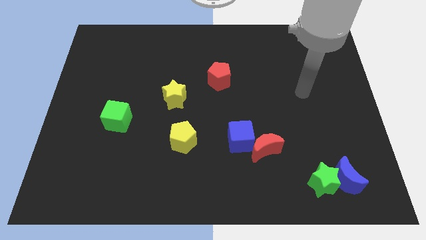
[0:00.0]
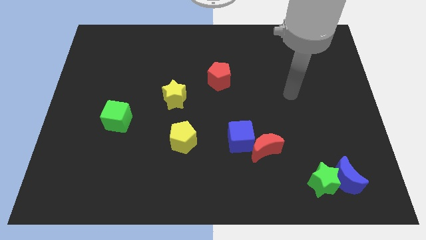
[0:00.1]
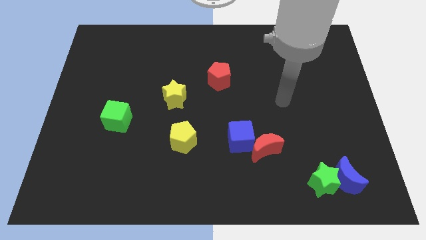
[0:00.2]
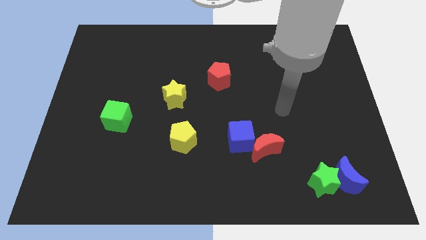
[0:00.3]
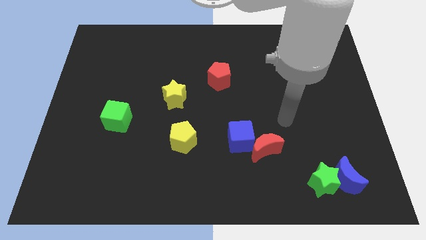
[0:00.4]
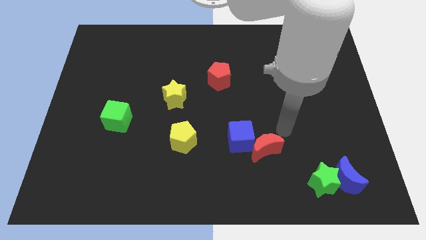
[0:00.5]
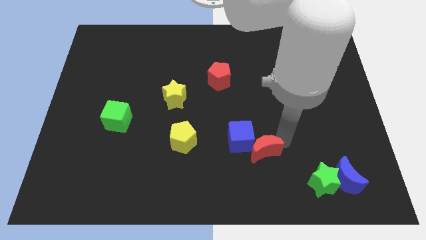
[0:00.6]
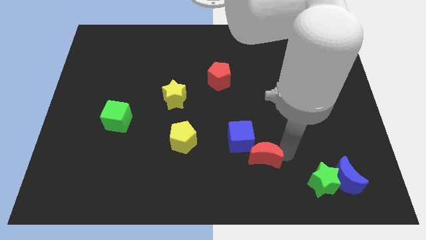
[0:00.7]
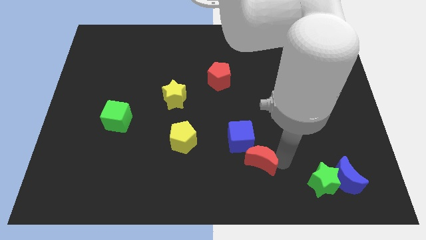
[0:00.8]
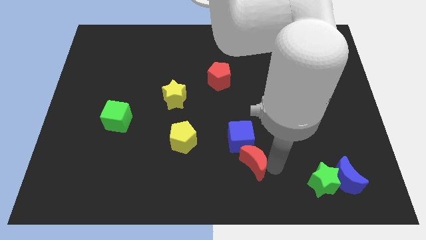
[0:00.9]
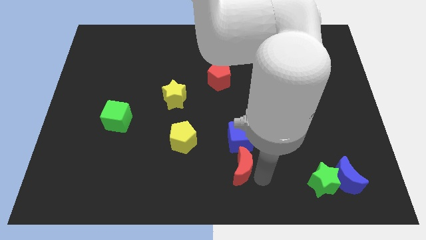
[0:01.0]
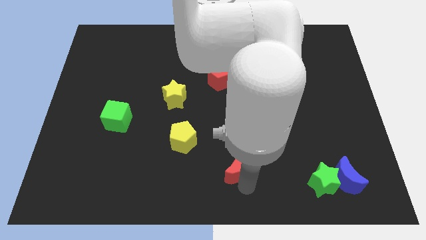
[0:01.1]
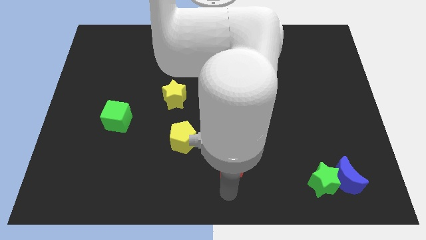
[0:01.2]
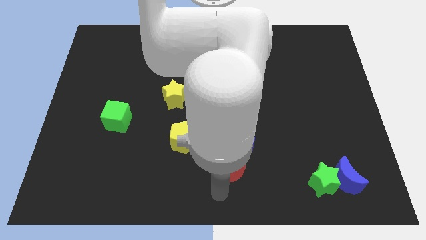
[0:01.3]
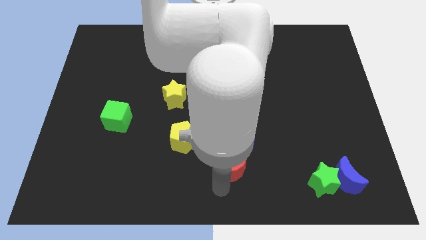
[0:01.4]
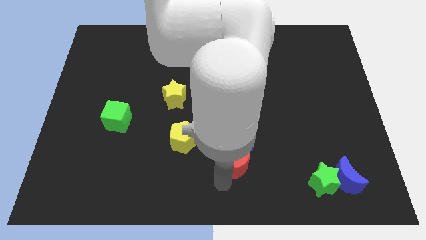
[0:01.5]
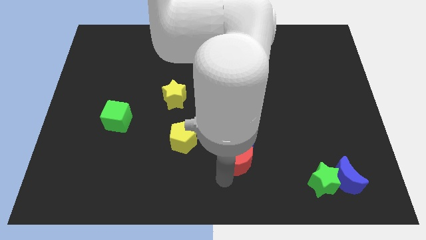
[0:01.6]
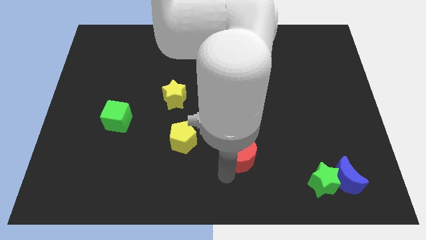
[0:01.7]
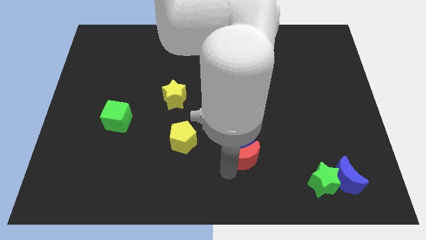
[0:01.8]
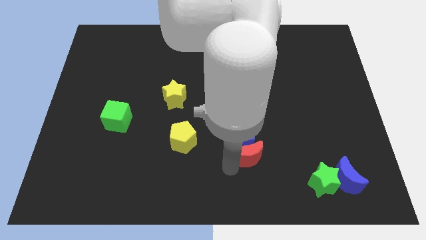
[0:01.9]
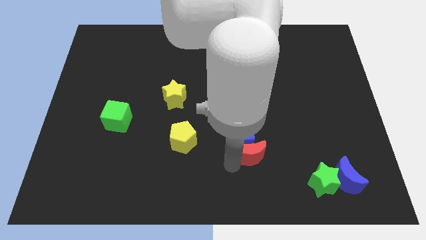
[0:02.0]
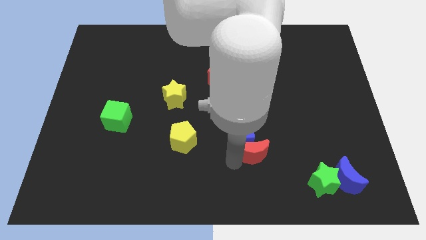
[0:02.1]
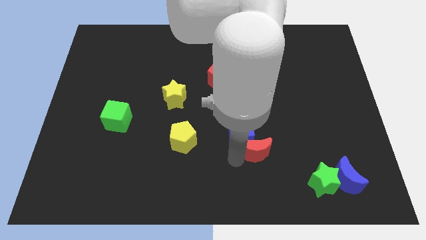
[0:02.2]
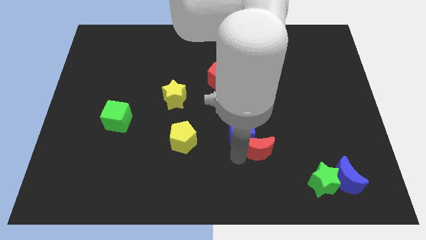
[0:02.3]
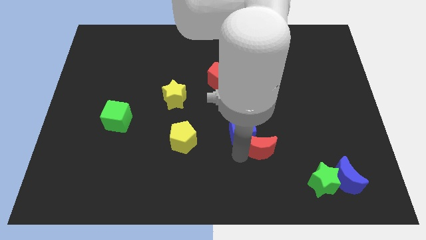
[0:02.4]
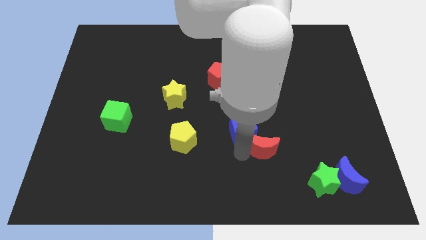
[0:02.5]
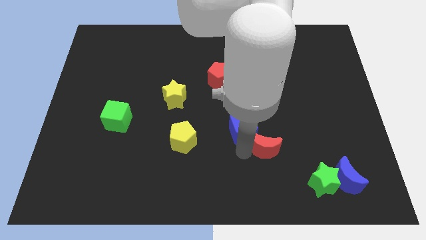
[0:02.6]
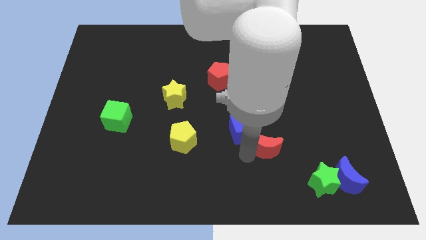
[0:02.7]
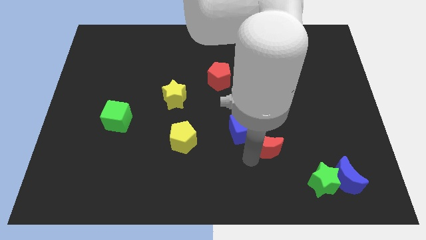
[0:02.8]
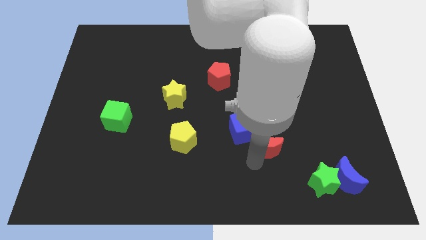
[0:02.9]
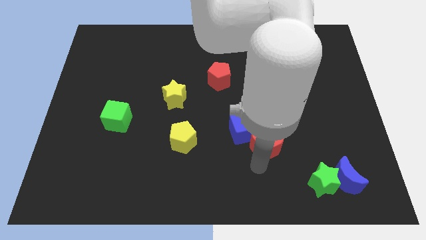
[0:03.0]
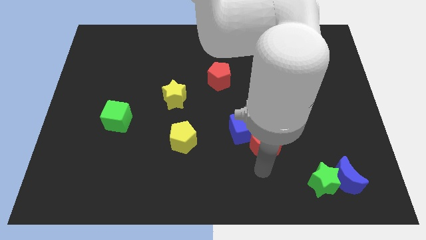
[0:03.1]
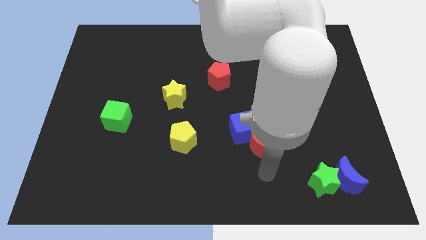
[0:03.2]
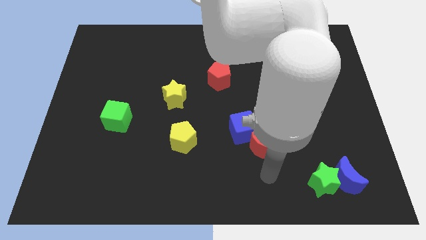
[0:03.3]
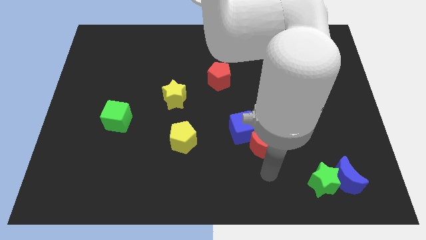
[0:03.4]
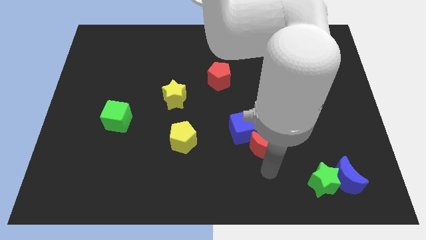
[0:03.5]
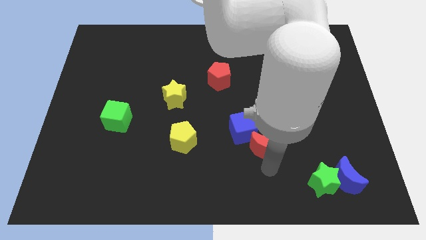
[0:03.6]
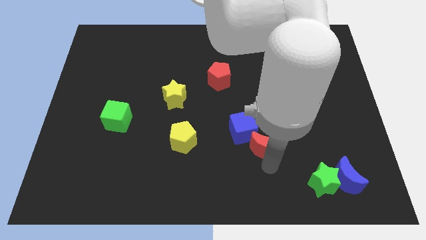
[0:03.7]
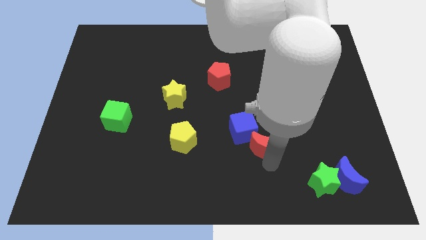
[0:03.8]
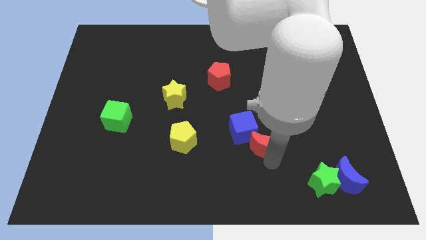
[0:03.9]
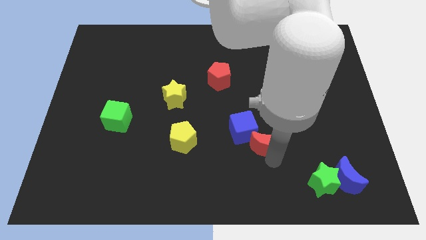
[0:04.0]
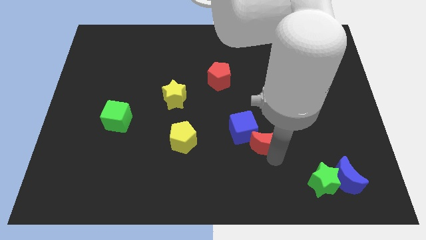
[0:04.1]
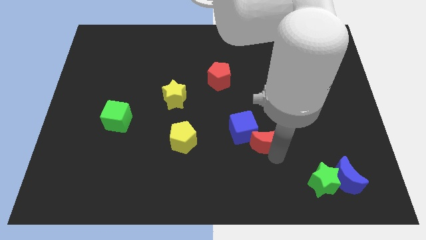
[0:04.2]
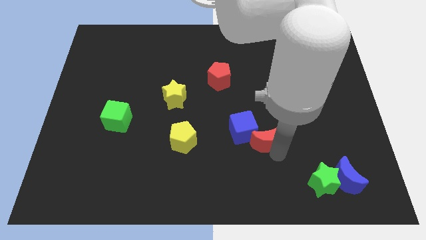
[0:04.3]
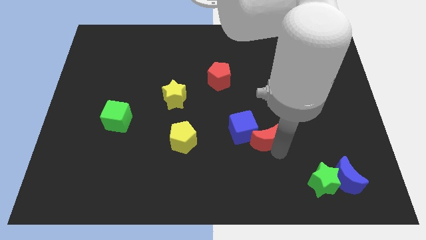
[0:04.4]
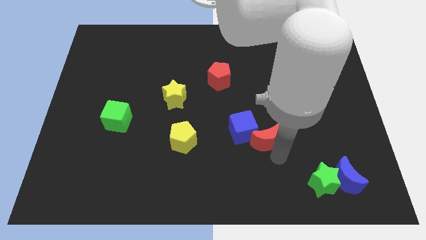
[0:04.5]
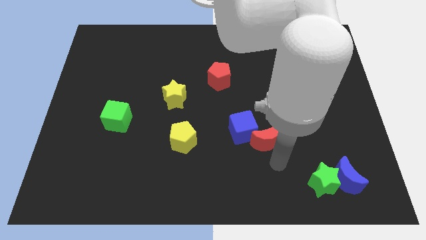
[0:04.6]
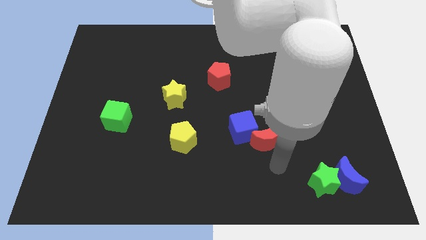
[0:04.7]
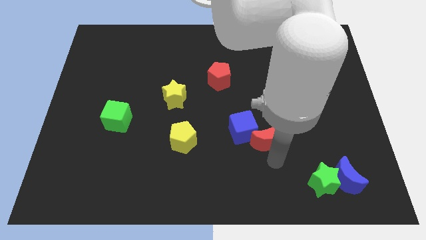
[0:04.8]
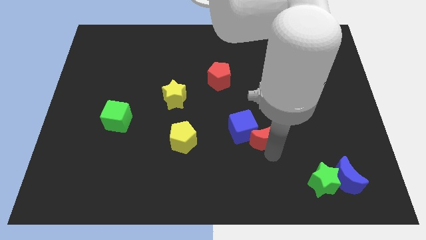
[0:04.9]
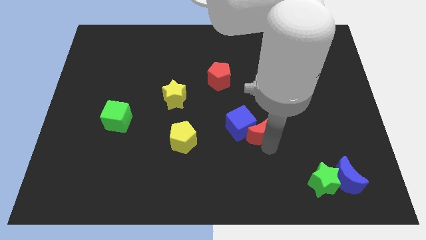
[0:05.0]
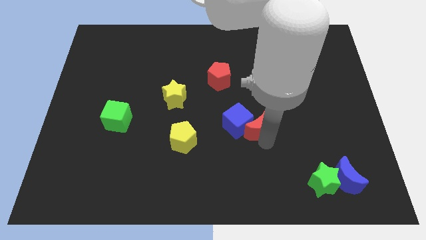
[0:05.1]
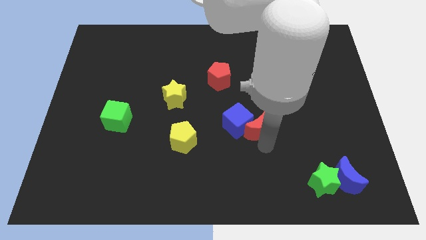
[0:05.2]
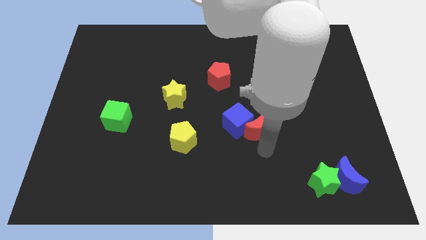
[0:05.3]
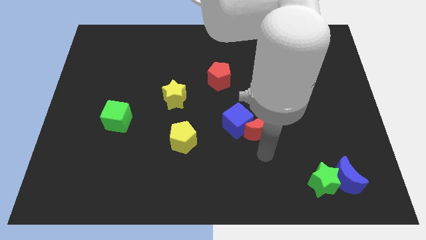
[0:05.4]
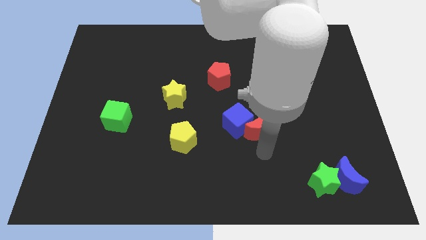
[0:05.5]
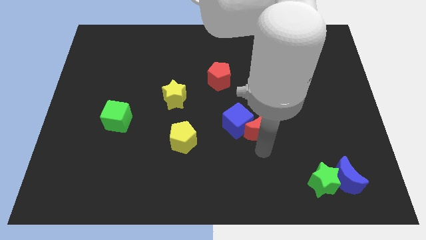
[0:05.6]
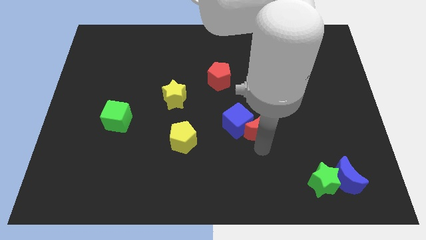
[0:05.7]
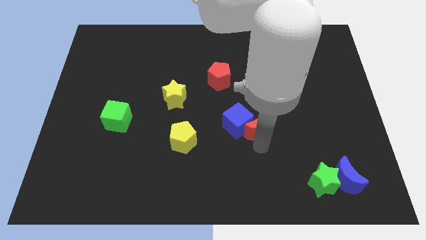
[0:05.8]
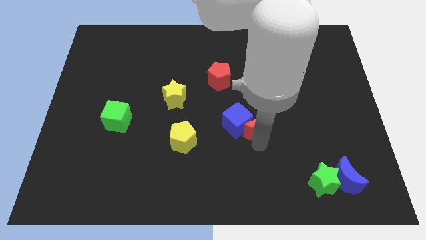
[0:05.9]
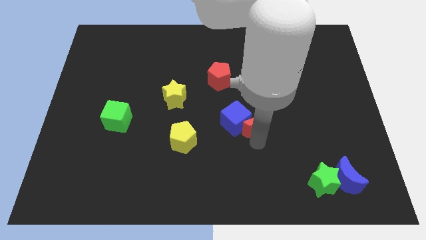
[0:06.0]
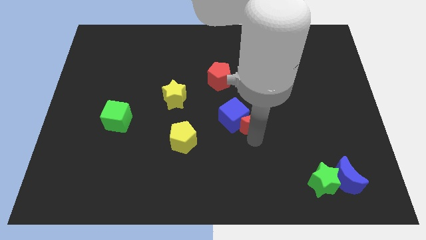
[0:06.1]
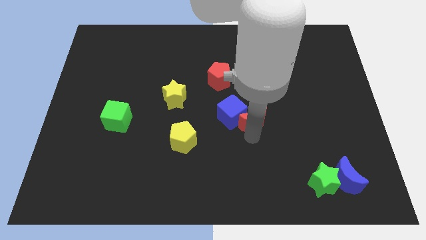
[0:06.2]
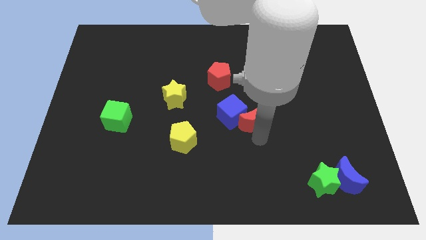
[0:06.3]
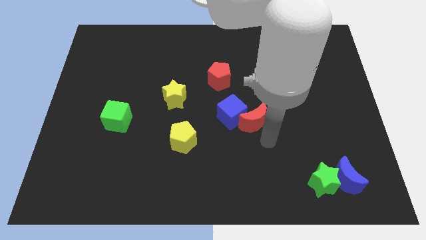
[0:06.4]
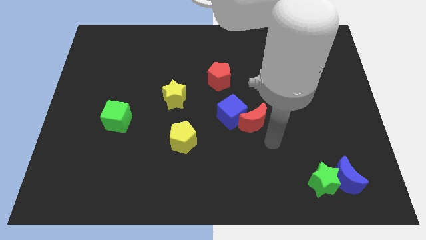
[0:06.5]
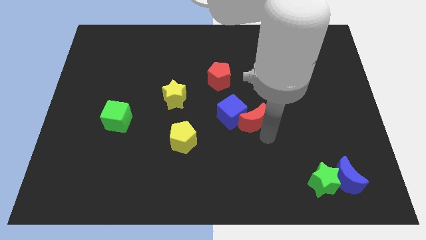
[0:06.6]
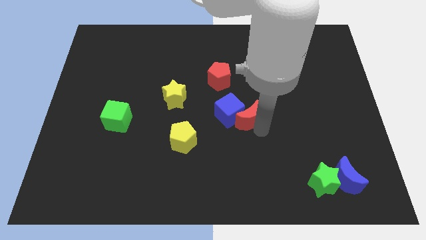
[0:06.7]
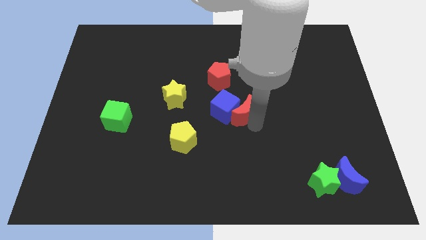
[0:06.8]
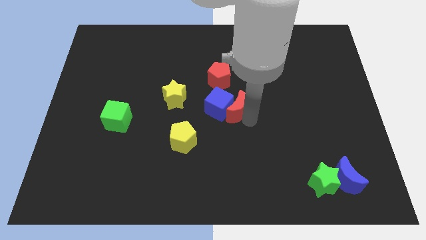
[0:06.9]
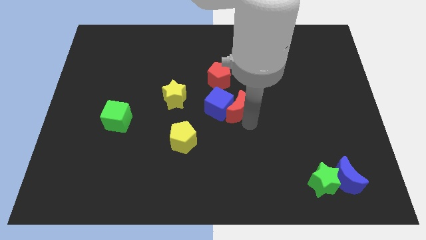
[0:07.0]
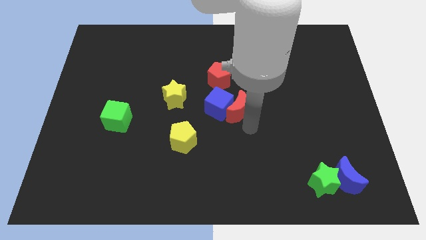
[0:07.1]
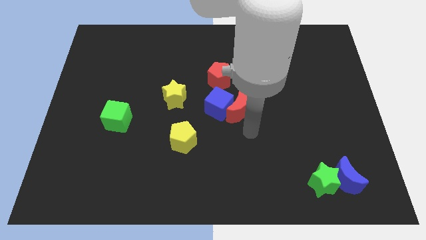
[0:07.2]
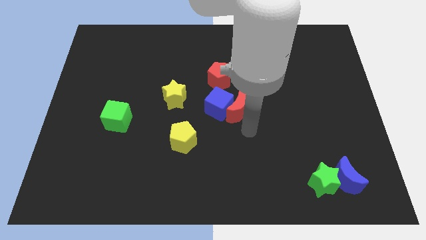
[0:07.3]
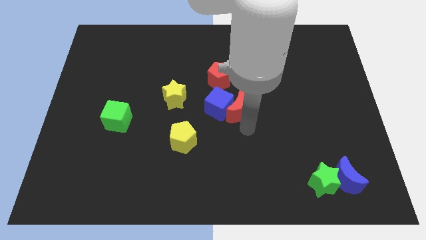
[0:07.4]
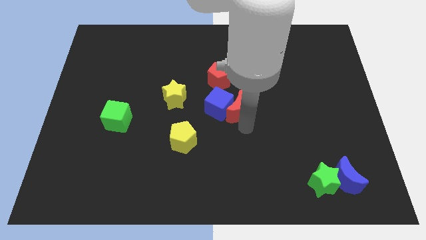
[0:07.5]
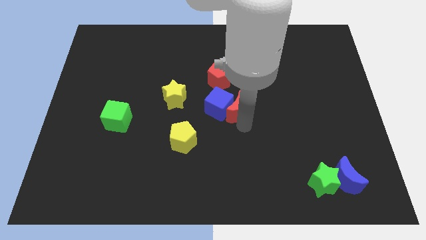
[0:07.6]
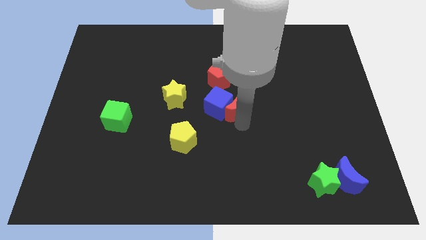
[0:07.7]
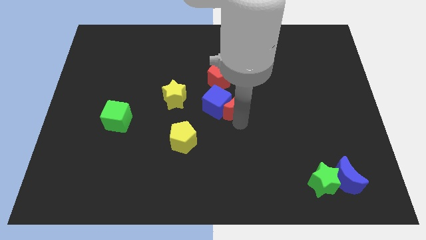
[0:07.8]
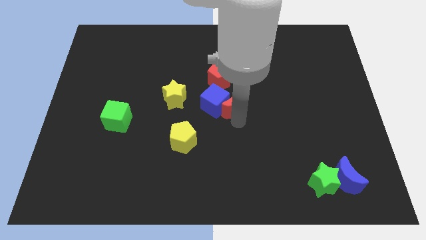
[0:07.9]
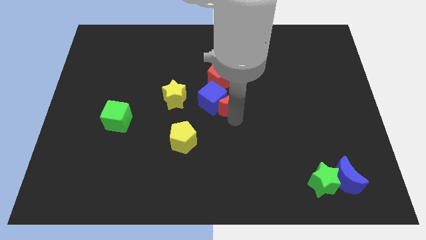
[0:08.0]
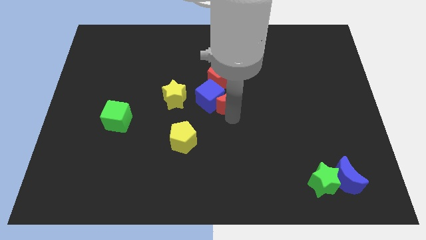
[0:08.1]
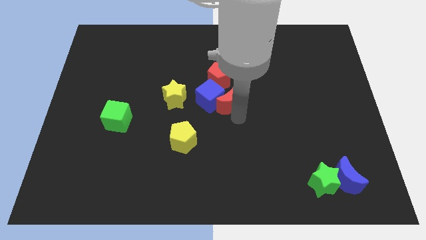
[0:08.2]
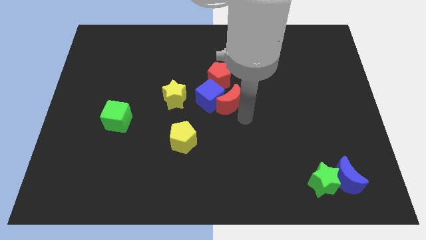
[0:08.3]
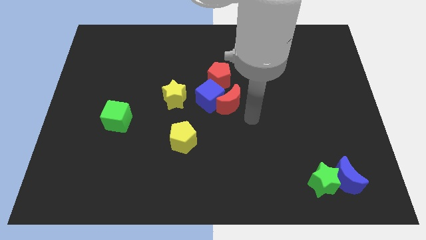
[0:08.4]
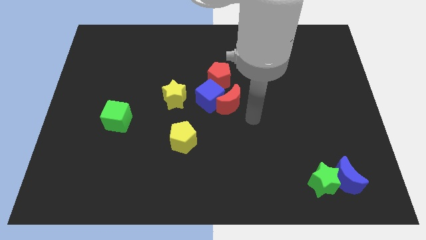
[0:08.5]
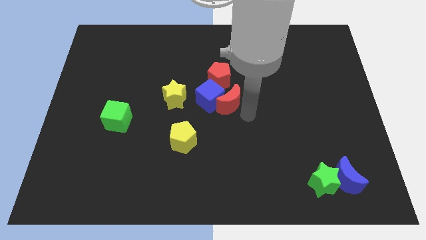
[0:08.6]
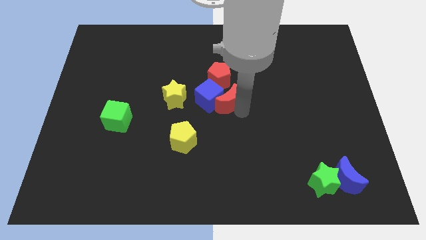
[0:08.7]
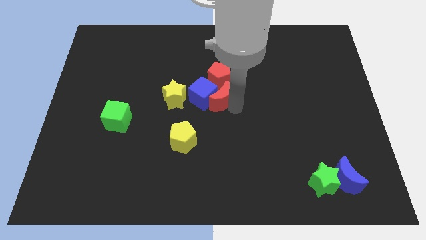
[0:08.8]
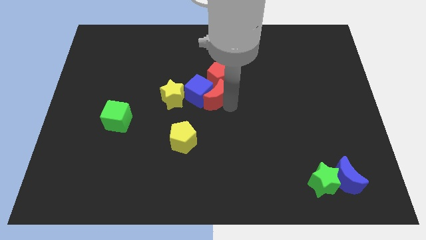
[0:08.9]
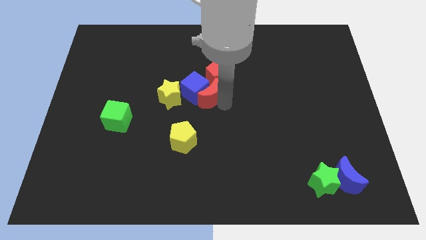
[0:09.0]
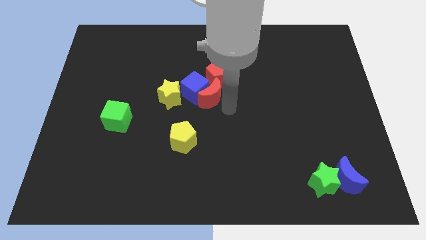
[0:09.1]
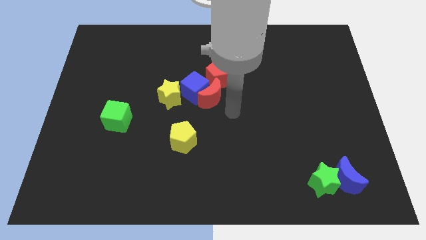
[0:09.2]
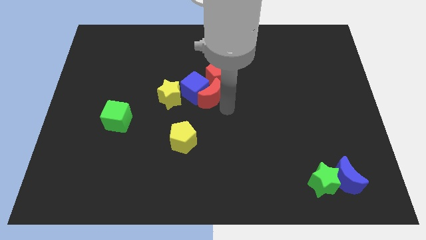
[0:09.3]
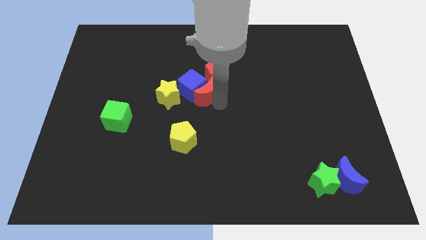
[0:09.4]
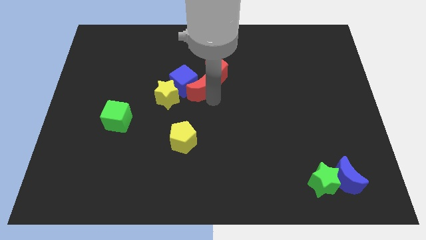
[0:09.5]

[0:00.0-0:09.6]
move the red moon upwards and left
